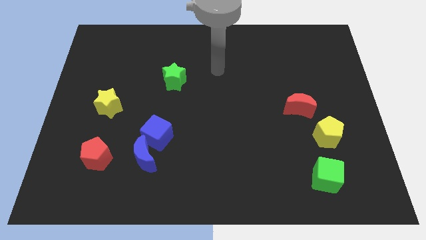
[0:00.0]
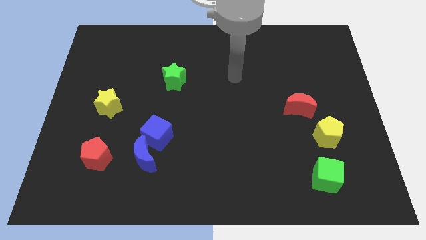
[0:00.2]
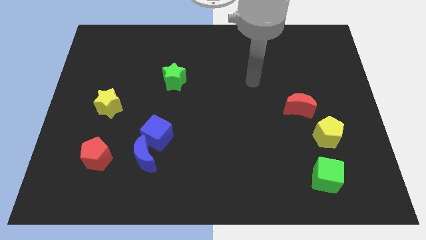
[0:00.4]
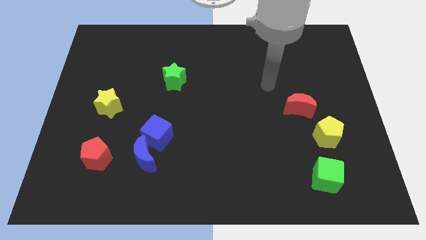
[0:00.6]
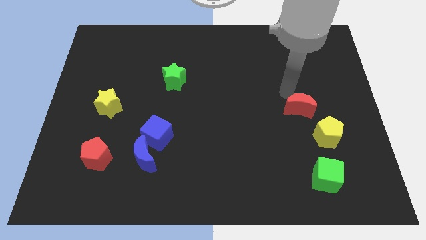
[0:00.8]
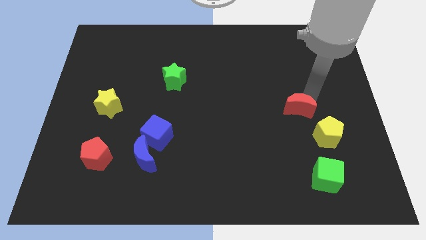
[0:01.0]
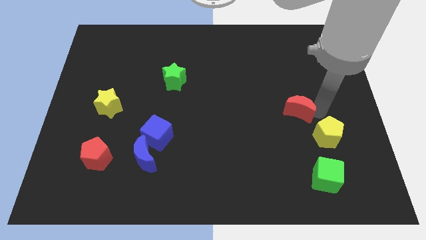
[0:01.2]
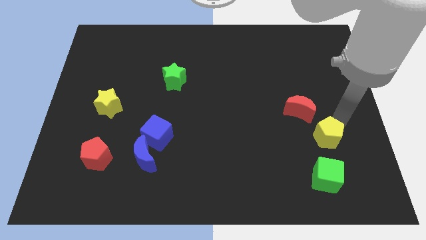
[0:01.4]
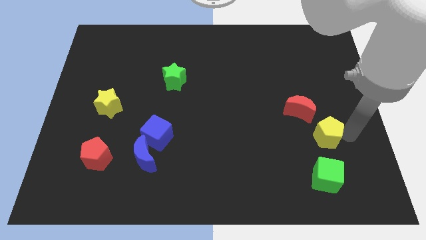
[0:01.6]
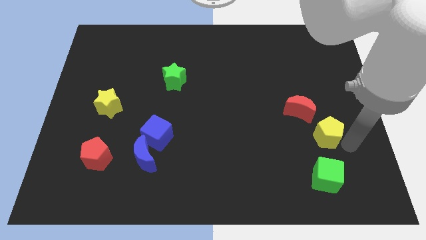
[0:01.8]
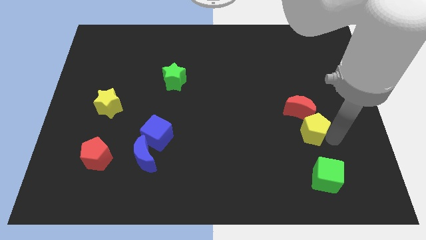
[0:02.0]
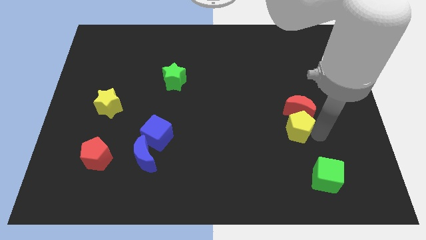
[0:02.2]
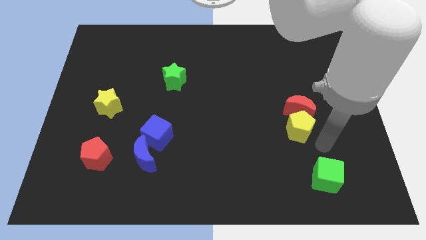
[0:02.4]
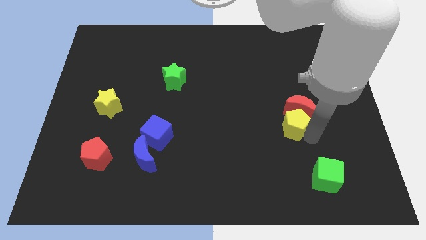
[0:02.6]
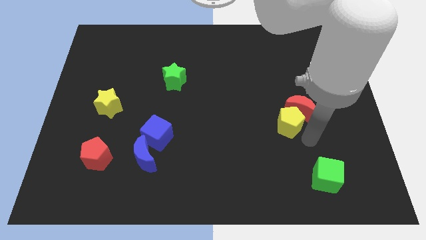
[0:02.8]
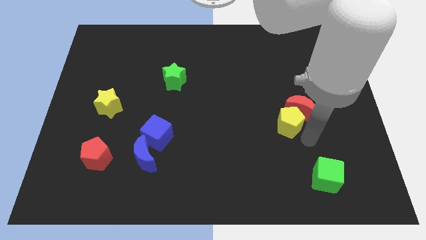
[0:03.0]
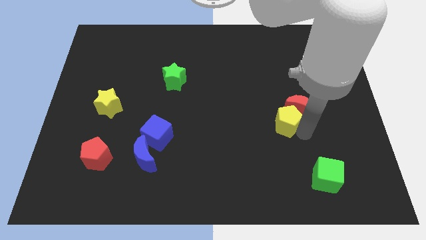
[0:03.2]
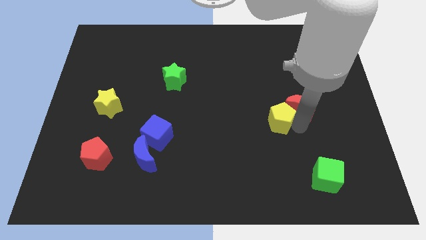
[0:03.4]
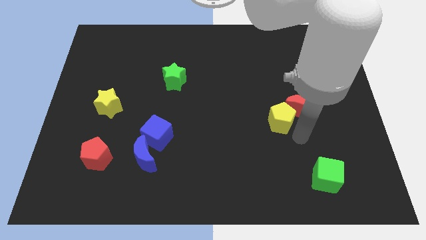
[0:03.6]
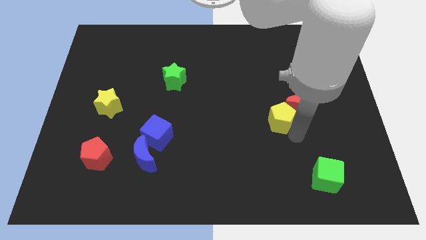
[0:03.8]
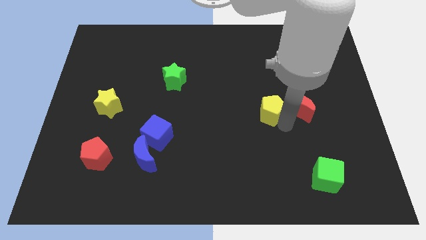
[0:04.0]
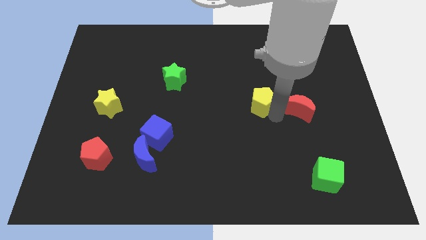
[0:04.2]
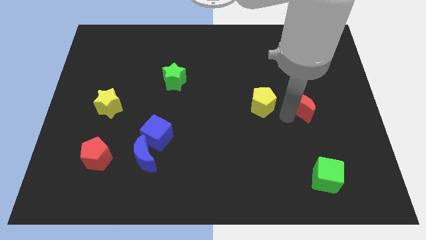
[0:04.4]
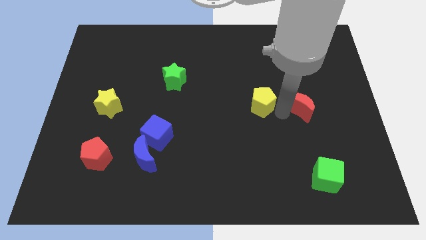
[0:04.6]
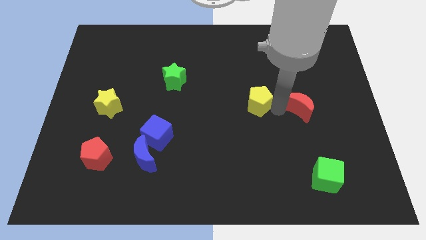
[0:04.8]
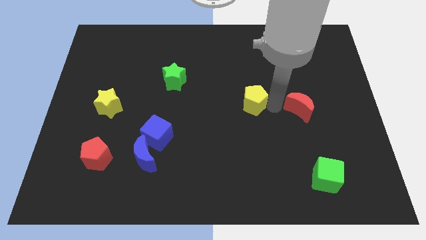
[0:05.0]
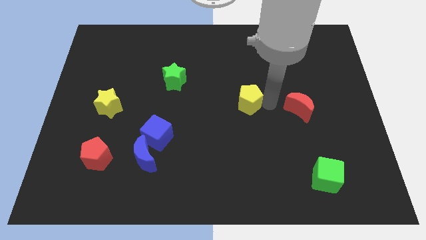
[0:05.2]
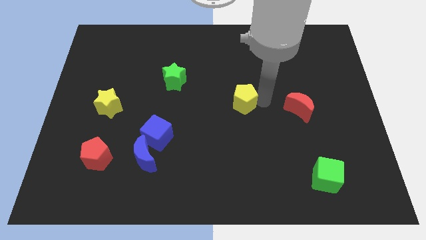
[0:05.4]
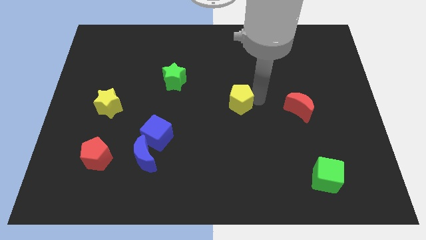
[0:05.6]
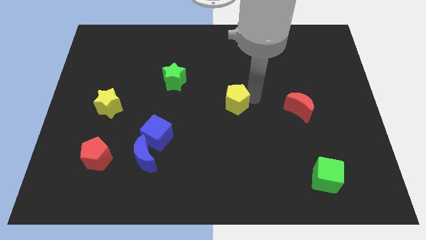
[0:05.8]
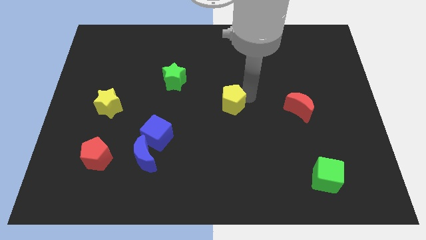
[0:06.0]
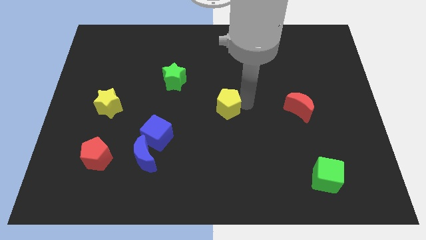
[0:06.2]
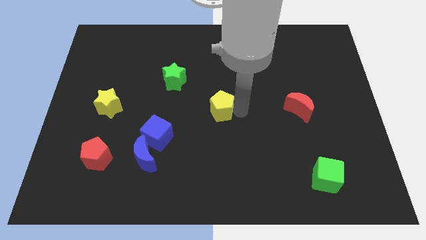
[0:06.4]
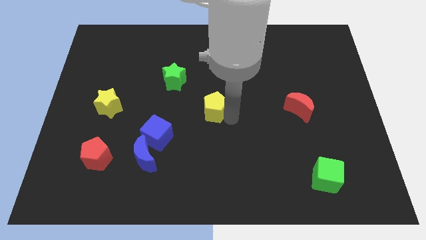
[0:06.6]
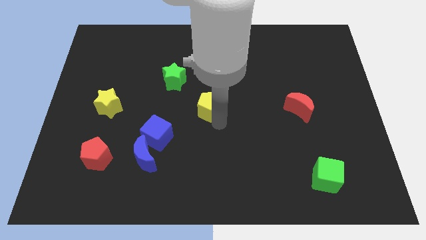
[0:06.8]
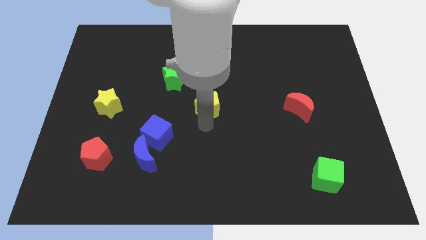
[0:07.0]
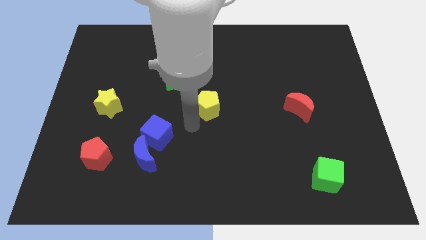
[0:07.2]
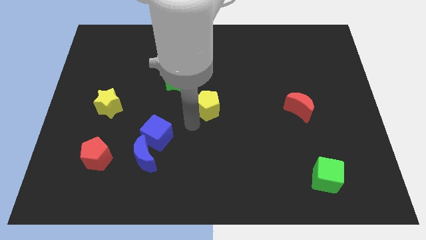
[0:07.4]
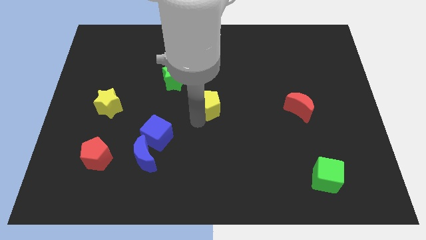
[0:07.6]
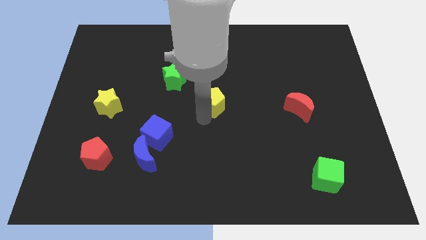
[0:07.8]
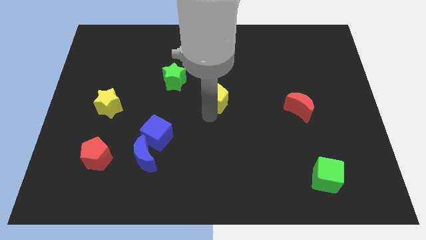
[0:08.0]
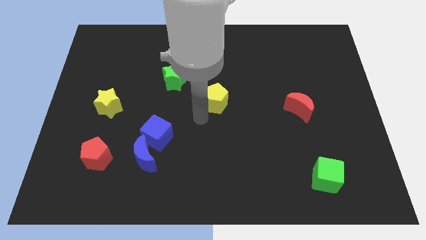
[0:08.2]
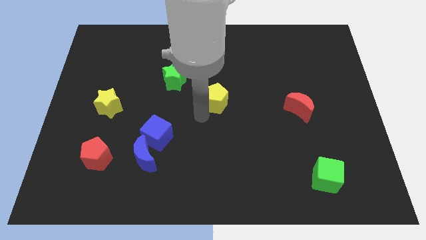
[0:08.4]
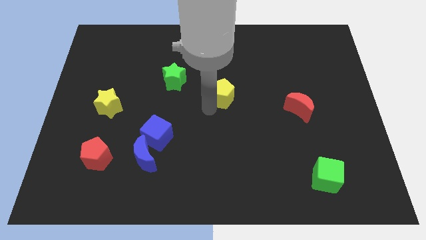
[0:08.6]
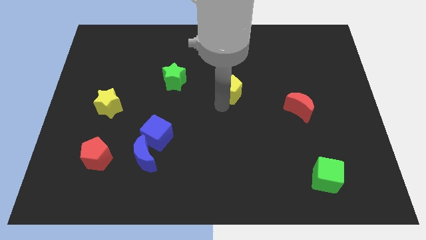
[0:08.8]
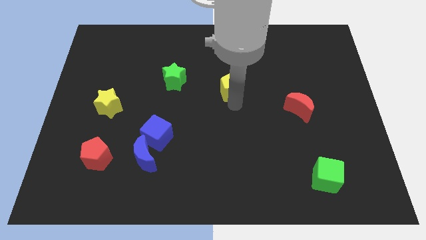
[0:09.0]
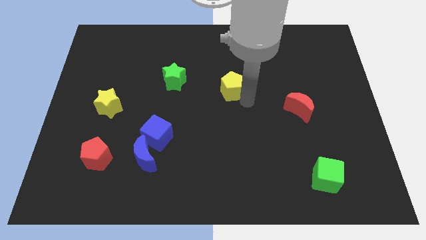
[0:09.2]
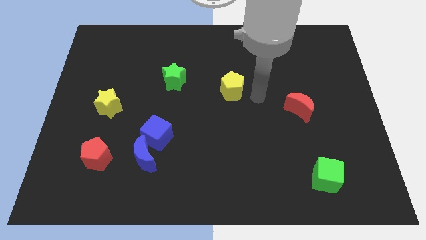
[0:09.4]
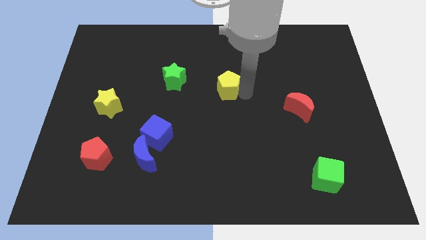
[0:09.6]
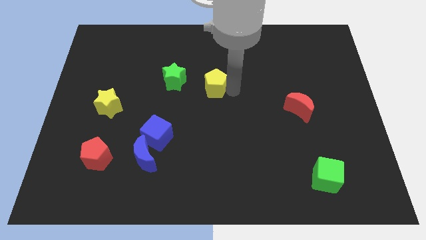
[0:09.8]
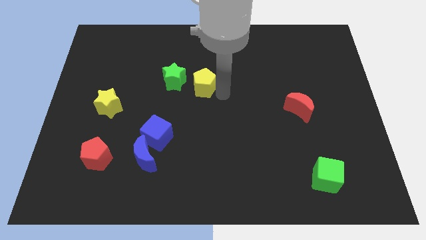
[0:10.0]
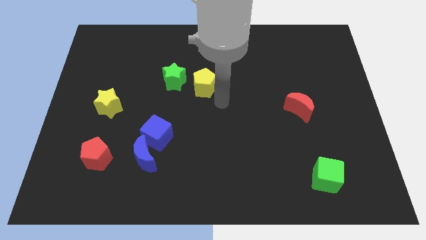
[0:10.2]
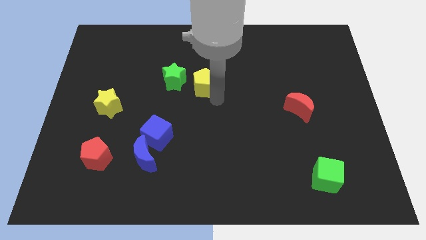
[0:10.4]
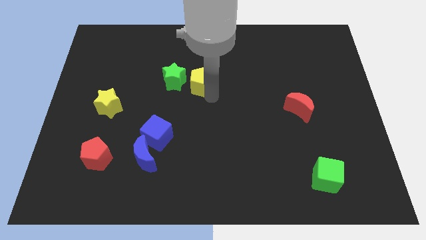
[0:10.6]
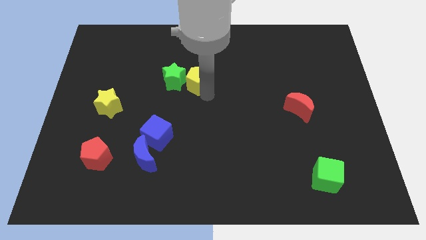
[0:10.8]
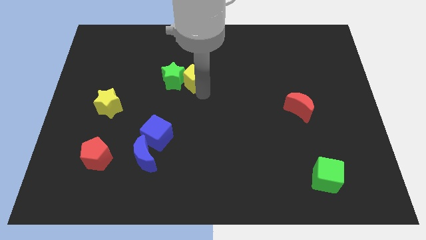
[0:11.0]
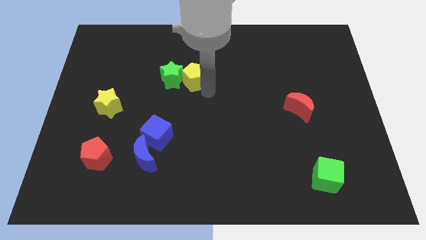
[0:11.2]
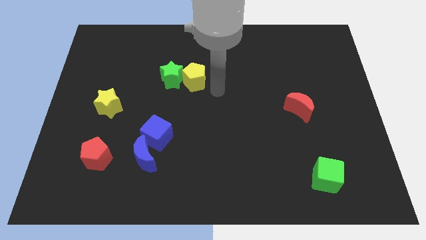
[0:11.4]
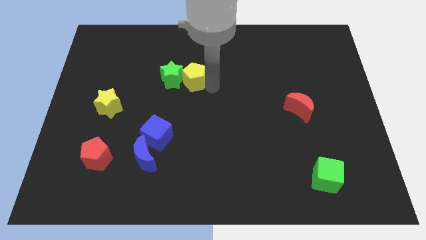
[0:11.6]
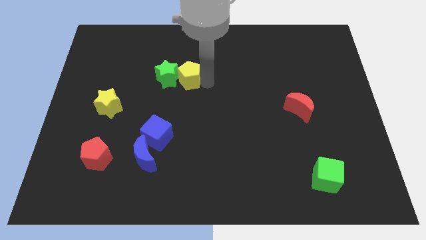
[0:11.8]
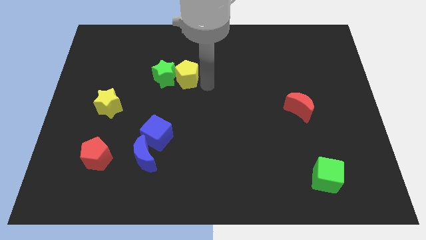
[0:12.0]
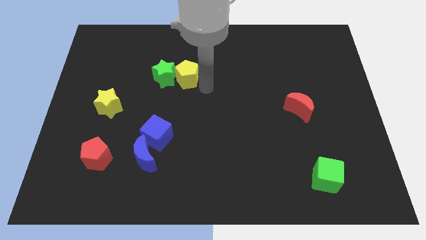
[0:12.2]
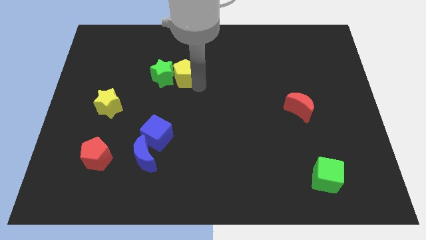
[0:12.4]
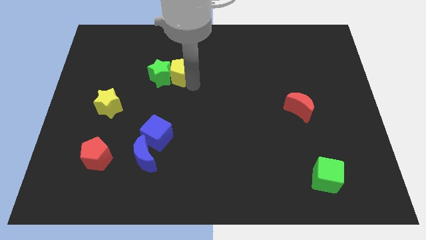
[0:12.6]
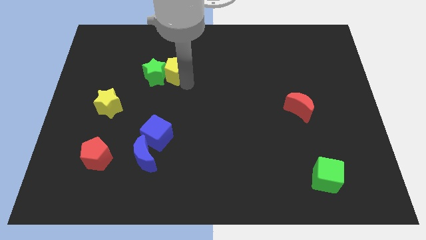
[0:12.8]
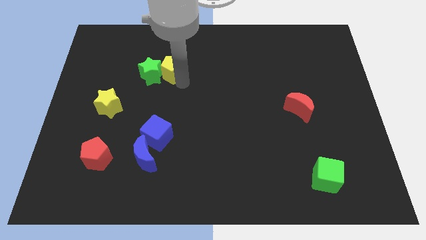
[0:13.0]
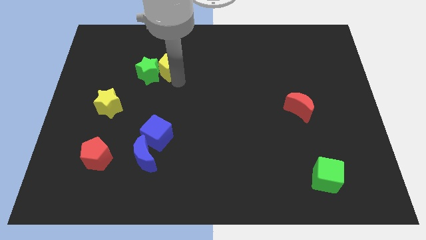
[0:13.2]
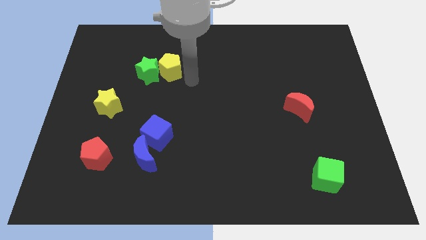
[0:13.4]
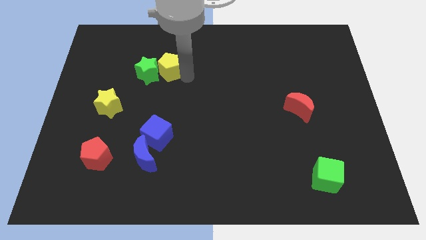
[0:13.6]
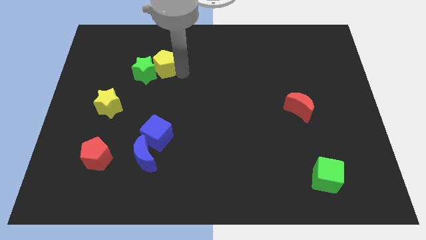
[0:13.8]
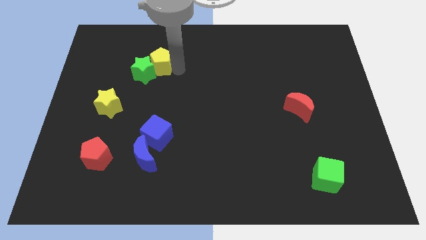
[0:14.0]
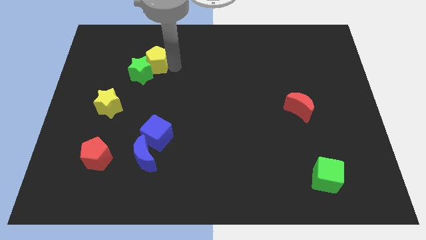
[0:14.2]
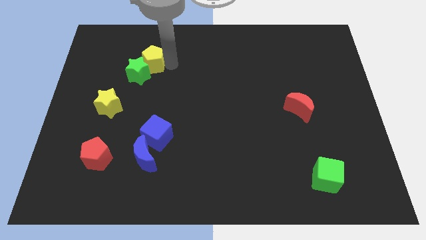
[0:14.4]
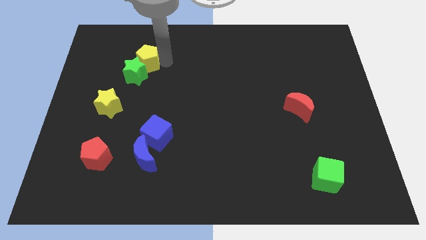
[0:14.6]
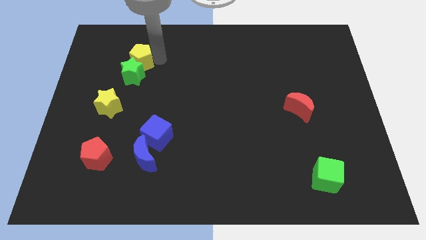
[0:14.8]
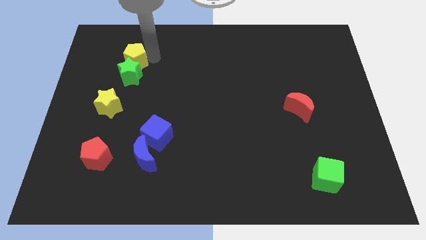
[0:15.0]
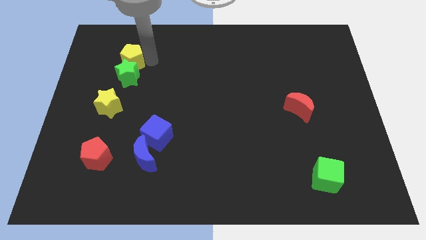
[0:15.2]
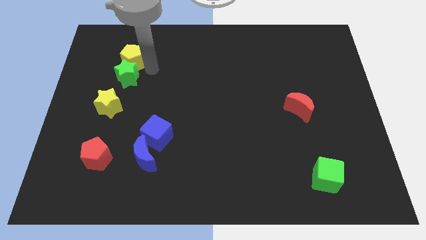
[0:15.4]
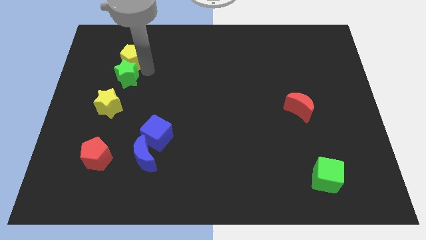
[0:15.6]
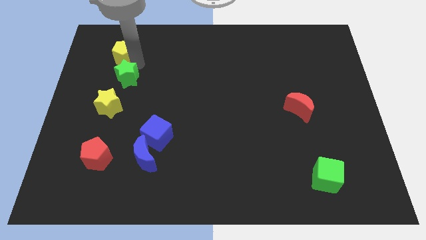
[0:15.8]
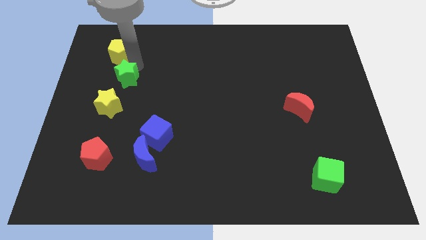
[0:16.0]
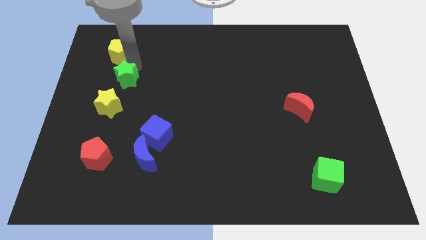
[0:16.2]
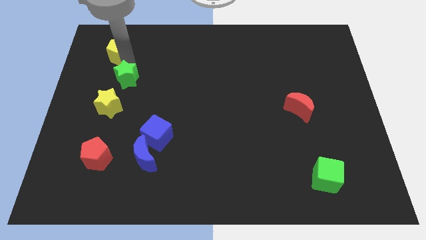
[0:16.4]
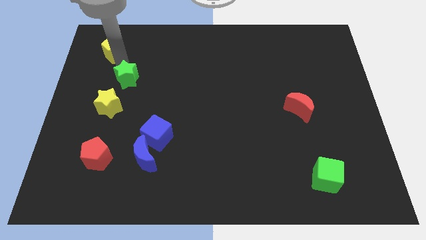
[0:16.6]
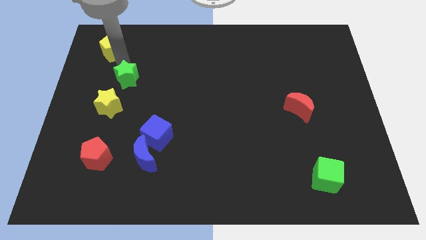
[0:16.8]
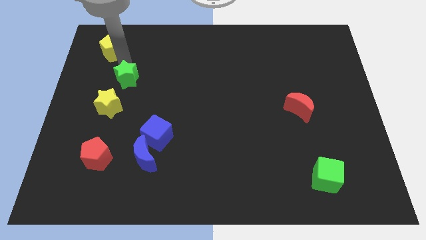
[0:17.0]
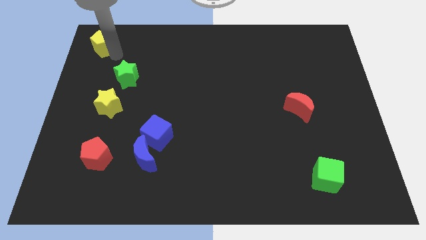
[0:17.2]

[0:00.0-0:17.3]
slide the yellow pentagon to the top left
